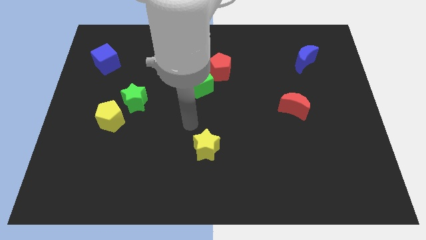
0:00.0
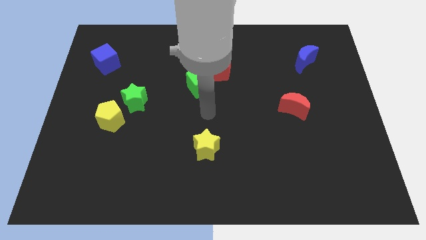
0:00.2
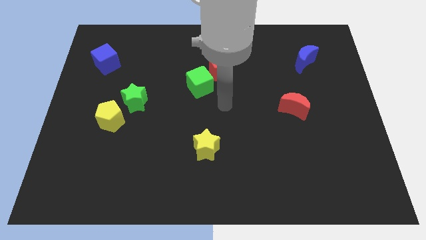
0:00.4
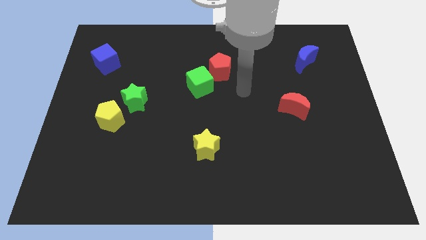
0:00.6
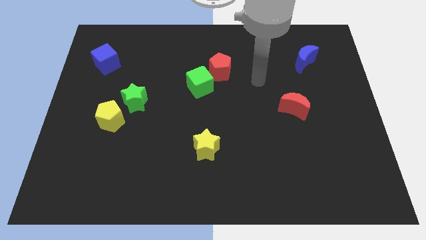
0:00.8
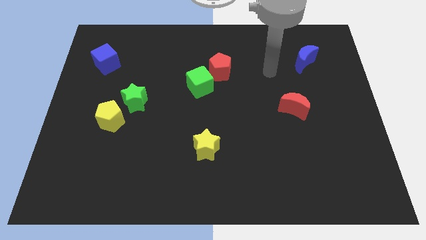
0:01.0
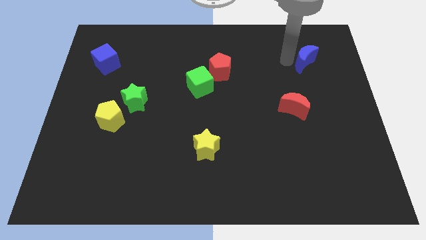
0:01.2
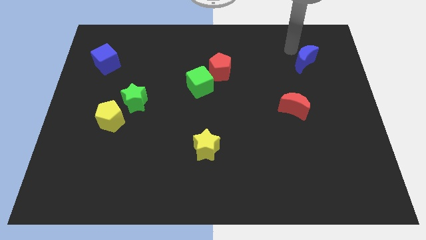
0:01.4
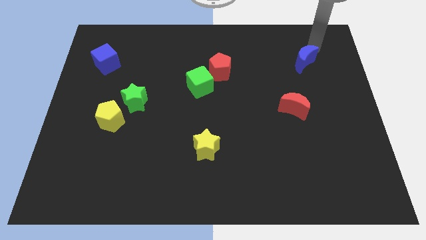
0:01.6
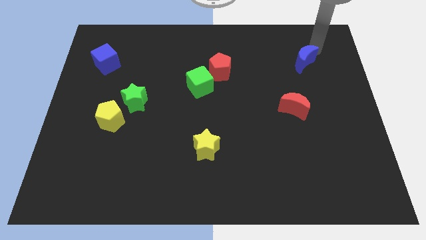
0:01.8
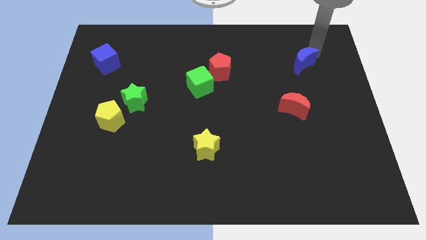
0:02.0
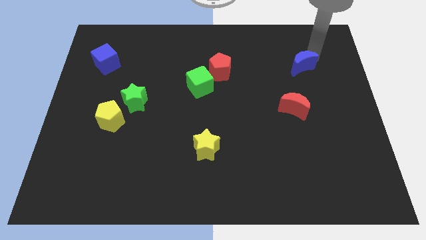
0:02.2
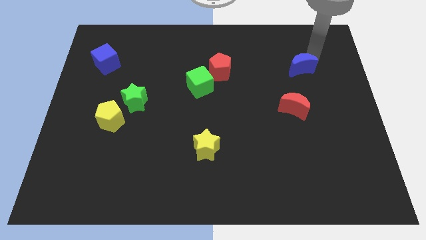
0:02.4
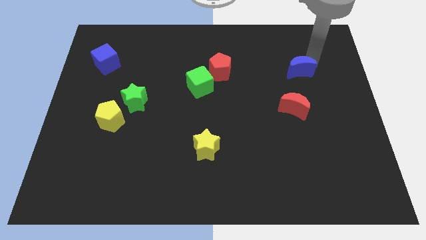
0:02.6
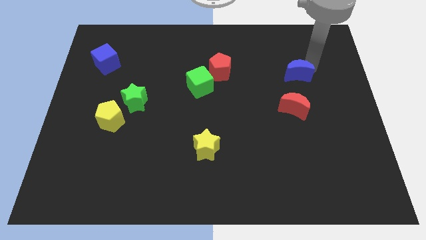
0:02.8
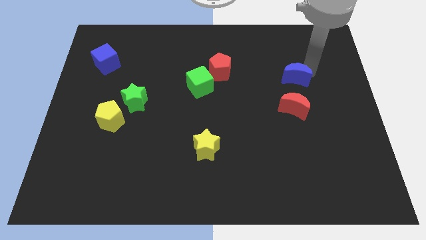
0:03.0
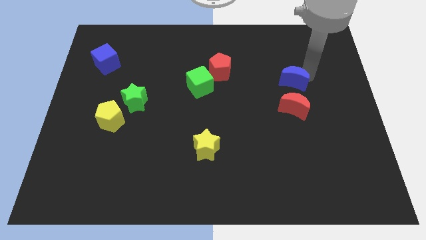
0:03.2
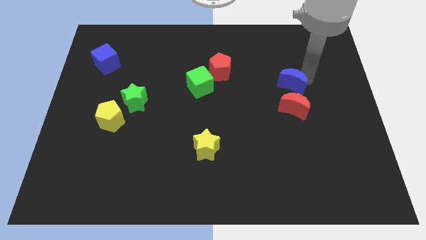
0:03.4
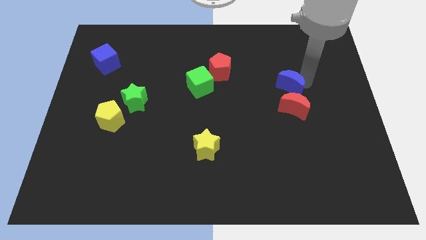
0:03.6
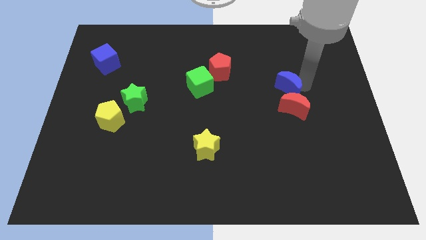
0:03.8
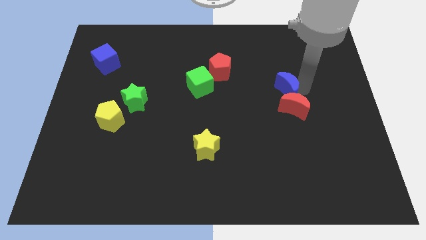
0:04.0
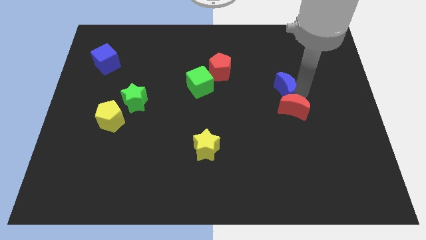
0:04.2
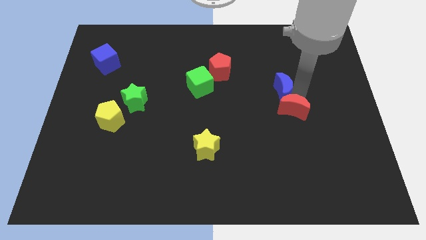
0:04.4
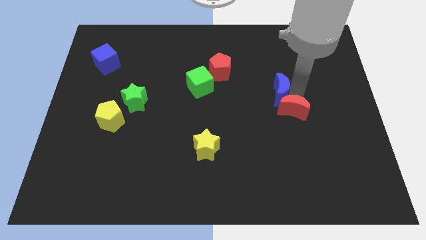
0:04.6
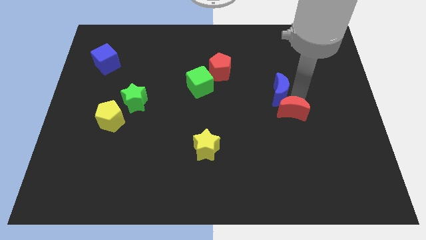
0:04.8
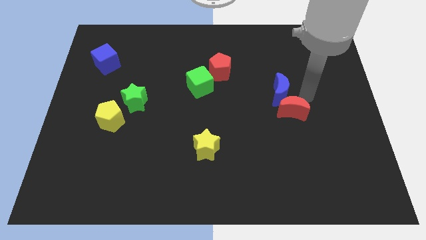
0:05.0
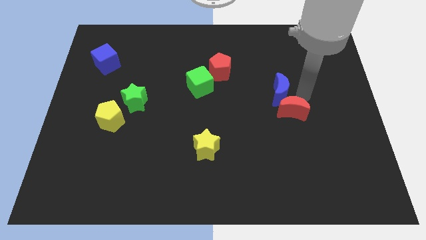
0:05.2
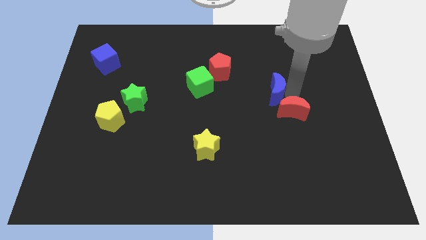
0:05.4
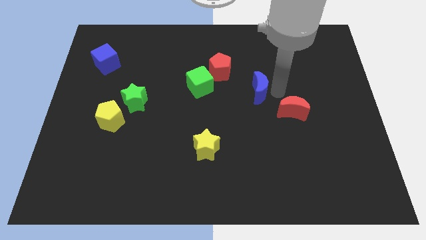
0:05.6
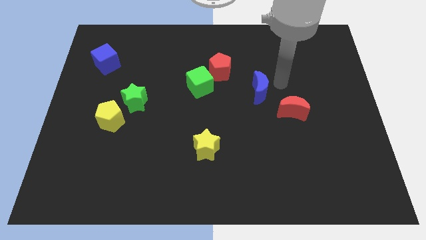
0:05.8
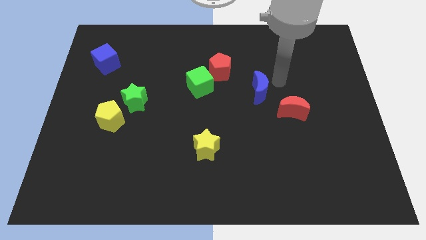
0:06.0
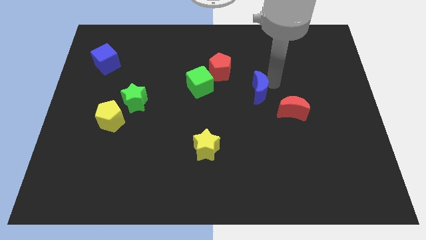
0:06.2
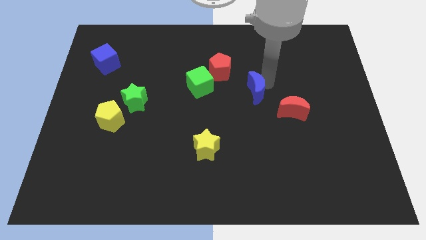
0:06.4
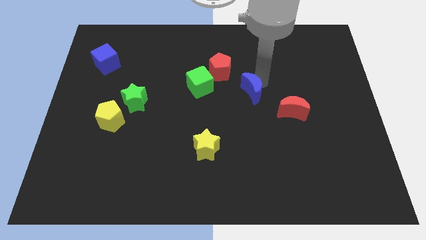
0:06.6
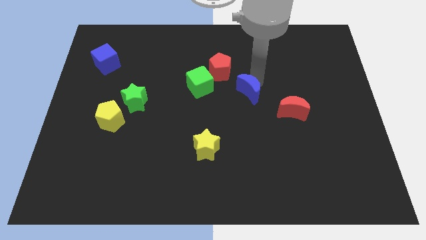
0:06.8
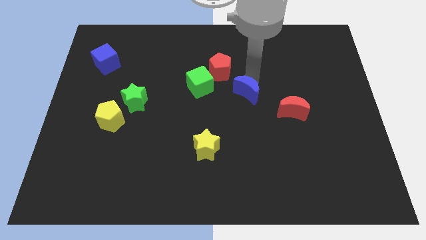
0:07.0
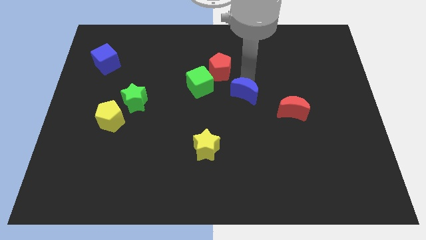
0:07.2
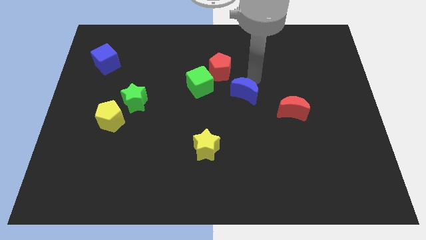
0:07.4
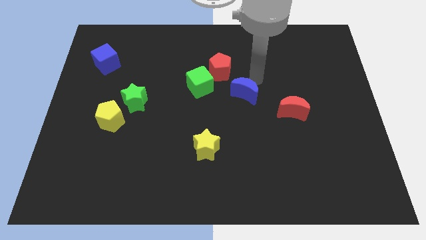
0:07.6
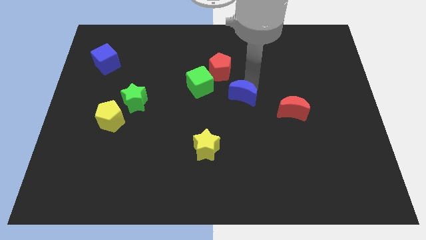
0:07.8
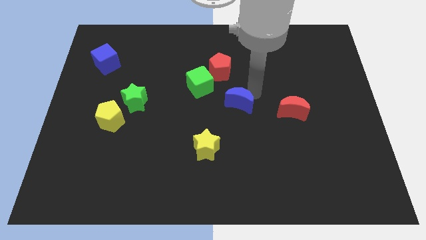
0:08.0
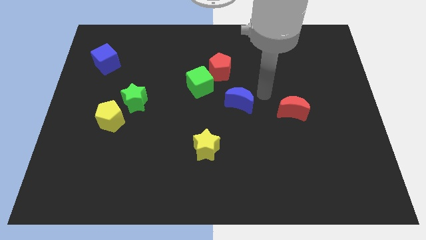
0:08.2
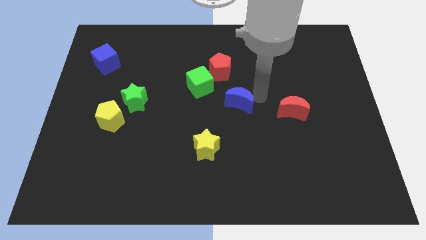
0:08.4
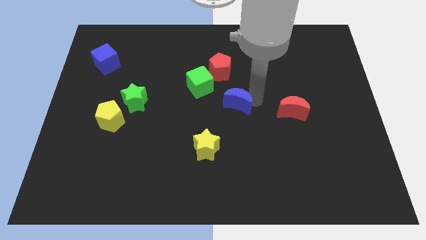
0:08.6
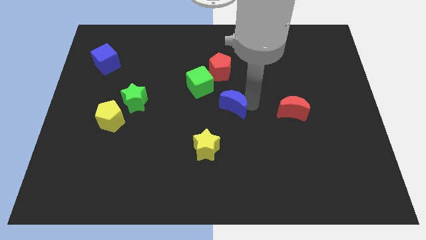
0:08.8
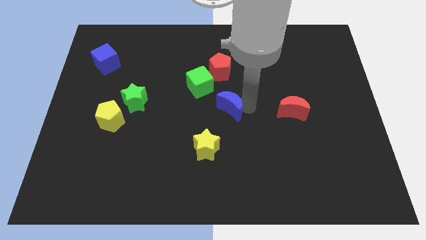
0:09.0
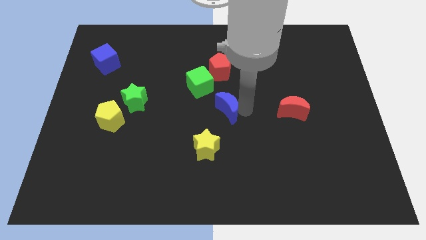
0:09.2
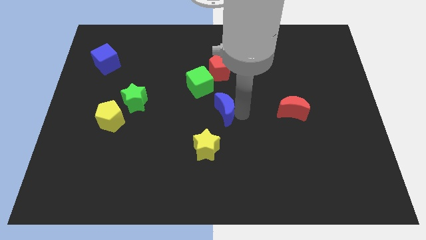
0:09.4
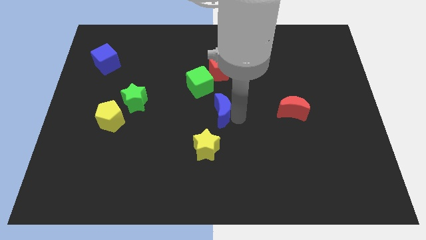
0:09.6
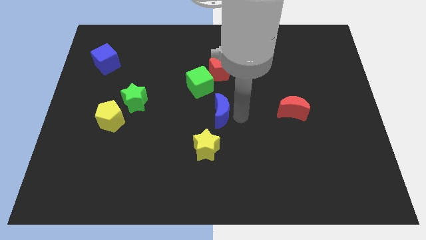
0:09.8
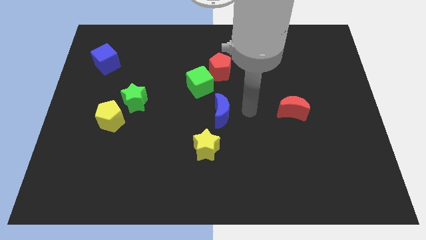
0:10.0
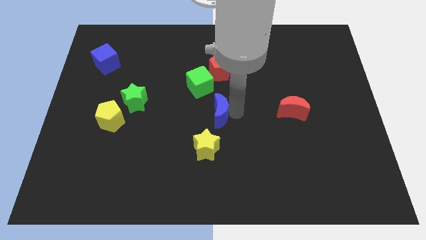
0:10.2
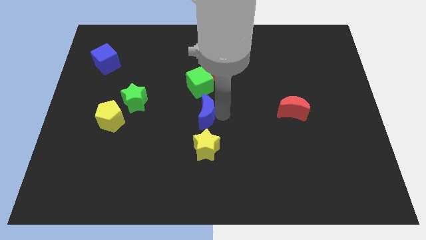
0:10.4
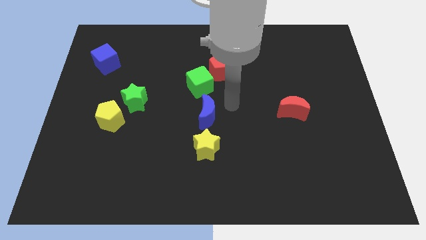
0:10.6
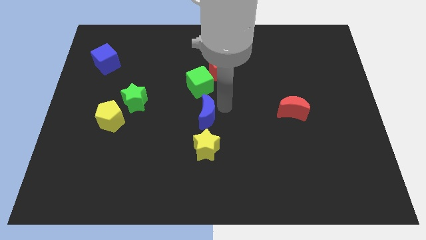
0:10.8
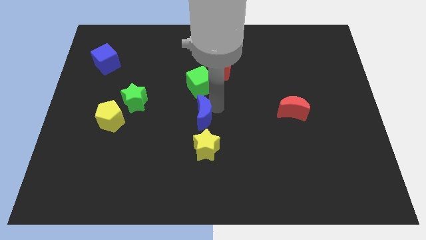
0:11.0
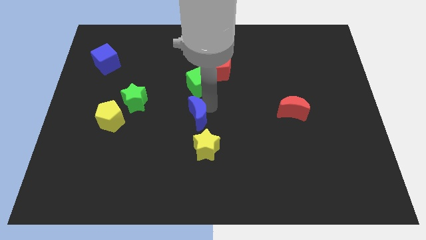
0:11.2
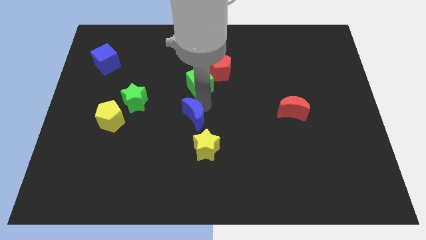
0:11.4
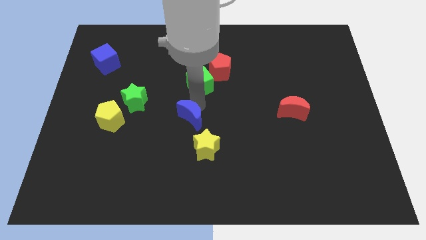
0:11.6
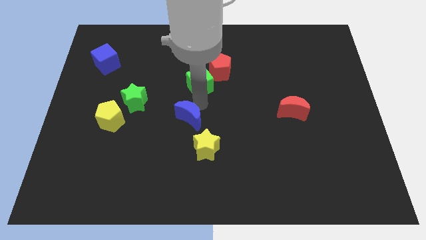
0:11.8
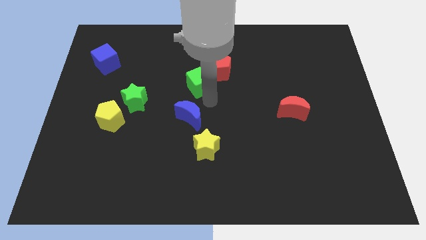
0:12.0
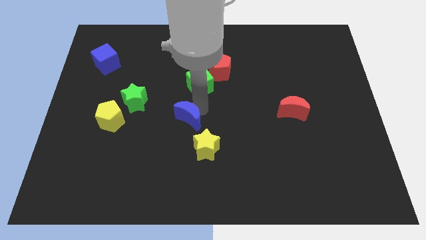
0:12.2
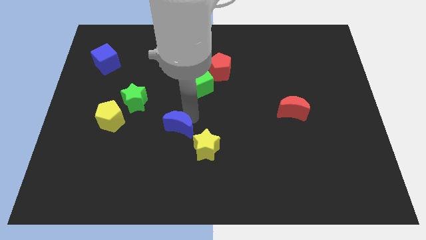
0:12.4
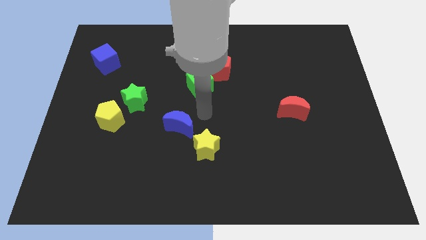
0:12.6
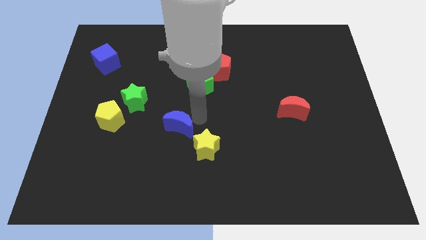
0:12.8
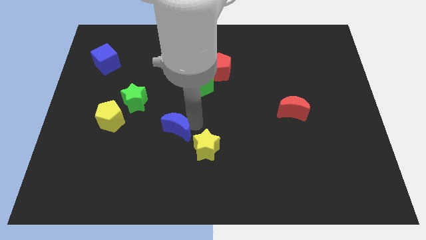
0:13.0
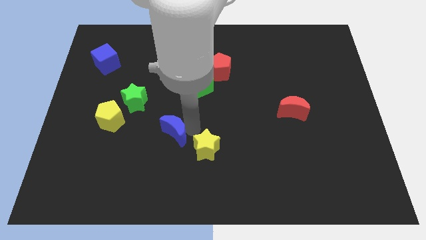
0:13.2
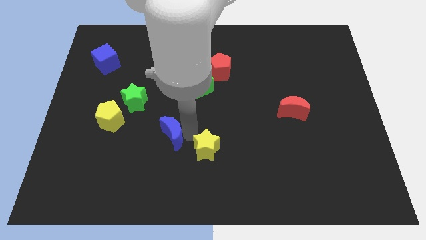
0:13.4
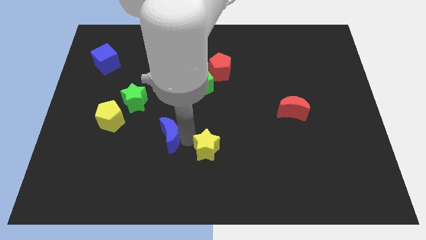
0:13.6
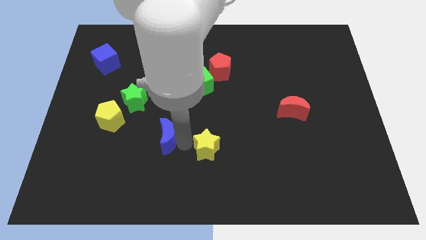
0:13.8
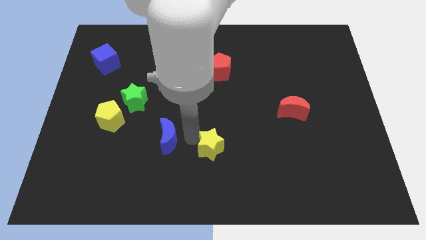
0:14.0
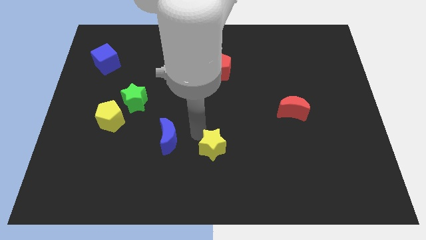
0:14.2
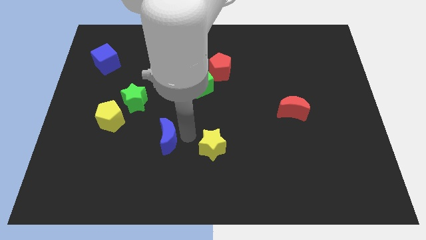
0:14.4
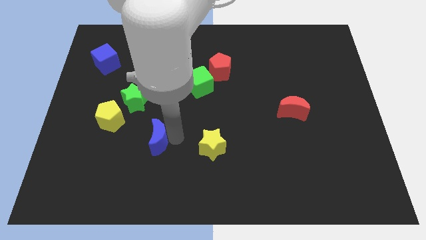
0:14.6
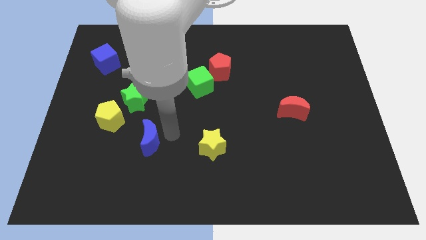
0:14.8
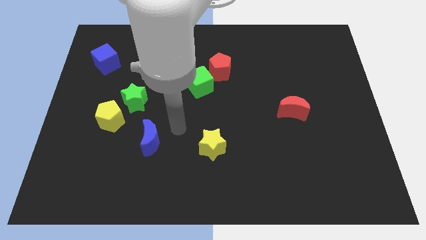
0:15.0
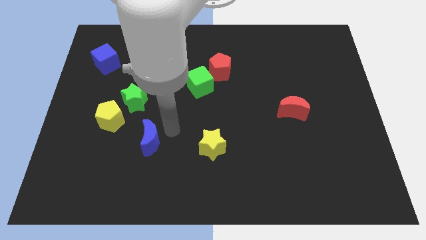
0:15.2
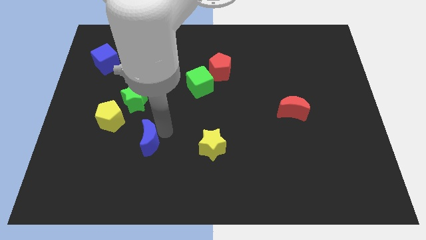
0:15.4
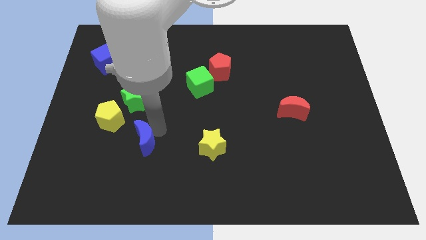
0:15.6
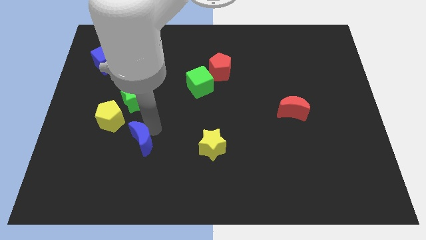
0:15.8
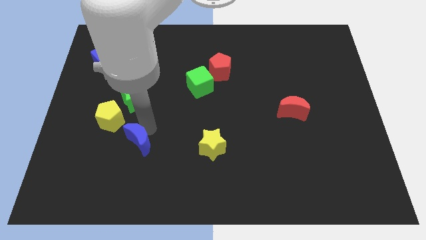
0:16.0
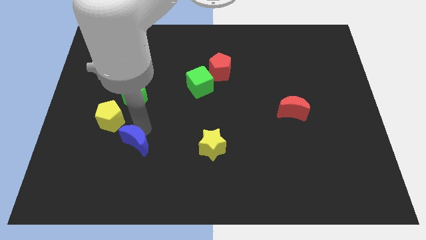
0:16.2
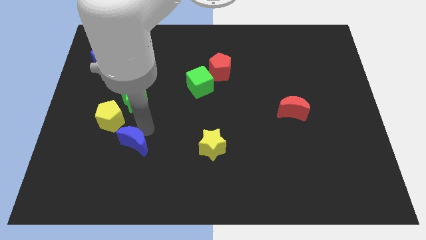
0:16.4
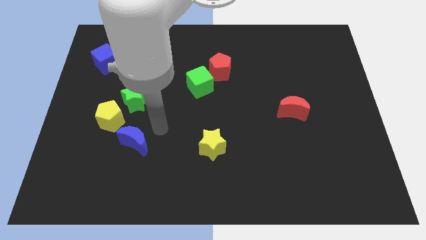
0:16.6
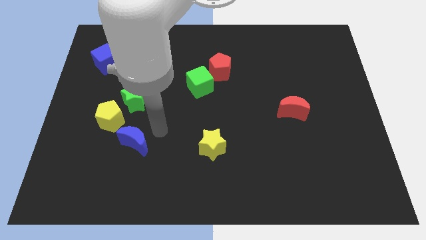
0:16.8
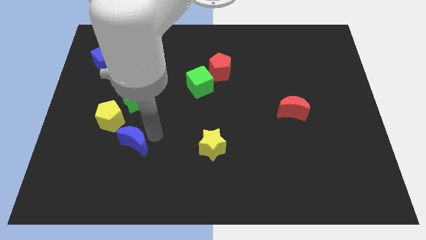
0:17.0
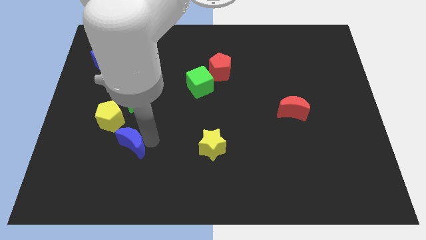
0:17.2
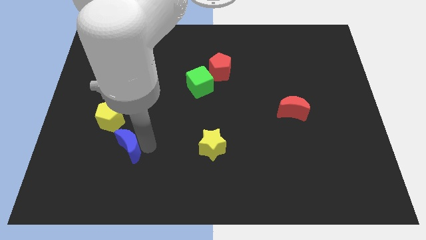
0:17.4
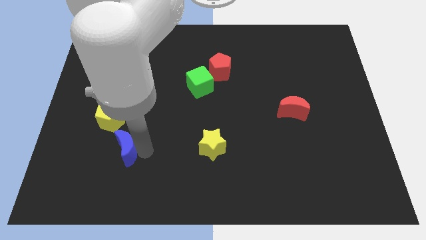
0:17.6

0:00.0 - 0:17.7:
slide the blue moon below the yellow pentagon
